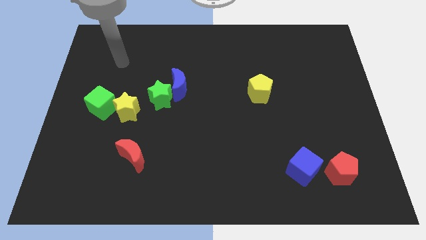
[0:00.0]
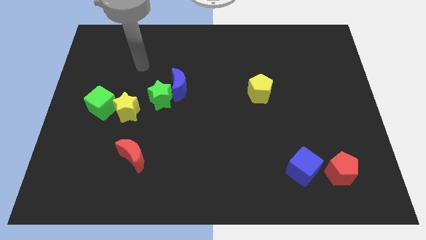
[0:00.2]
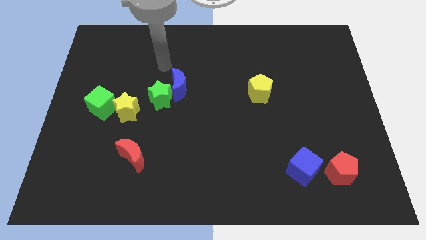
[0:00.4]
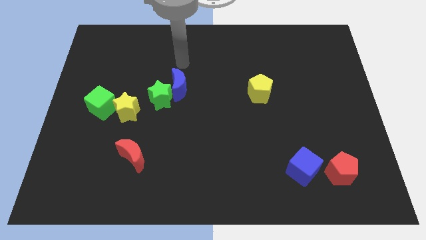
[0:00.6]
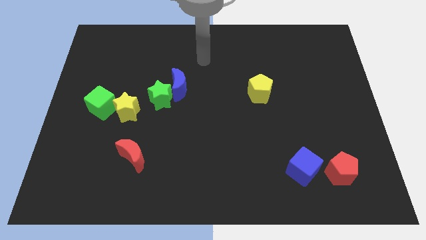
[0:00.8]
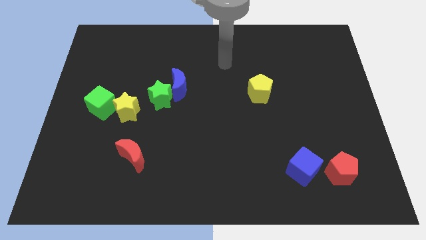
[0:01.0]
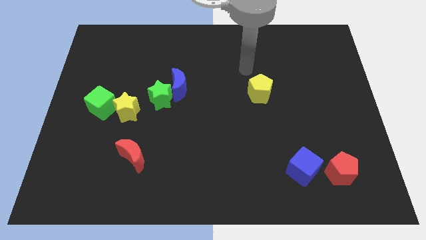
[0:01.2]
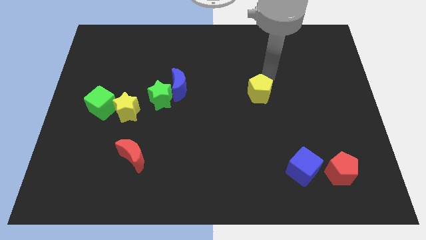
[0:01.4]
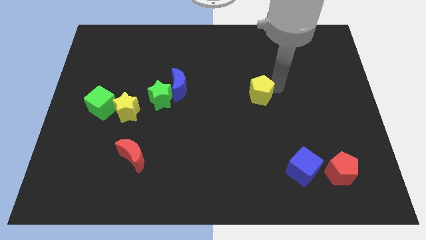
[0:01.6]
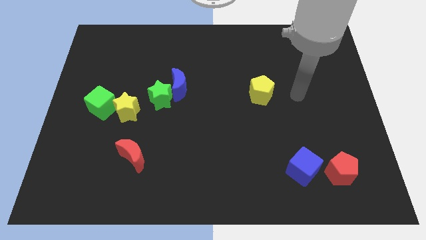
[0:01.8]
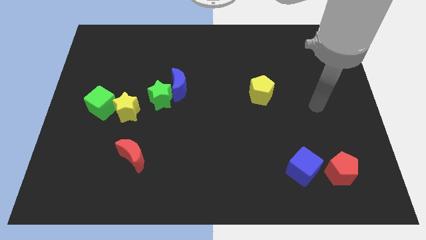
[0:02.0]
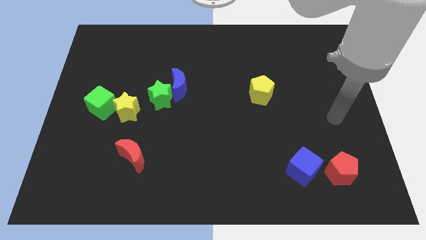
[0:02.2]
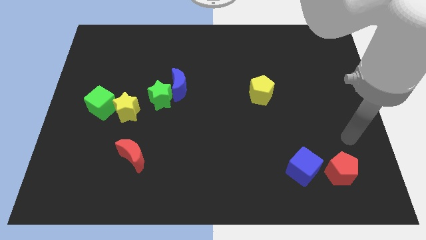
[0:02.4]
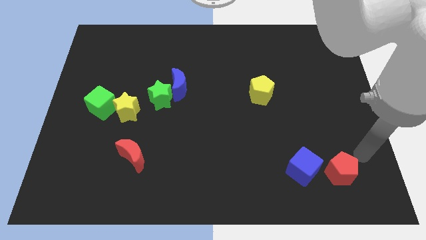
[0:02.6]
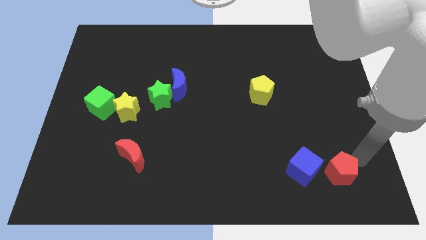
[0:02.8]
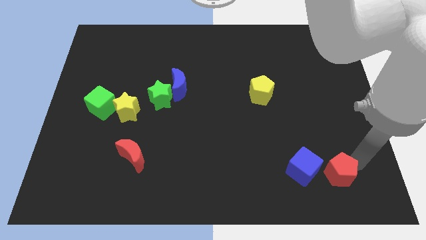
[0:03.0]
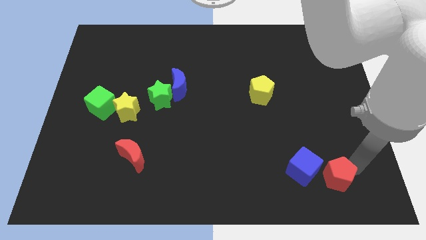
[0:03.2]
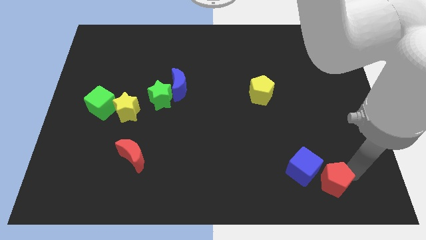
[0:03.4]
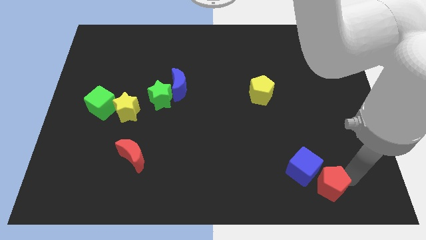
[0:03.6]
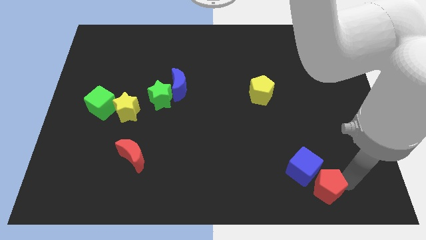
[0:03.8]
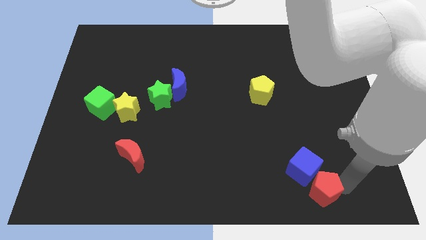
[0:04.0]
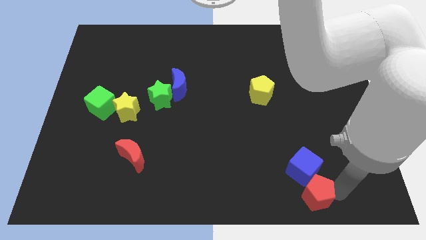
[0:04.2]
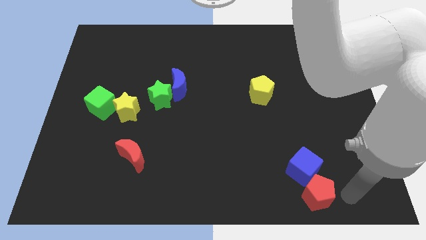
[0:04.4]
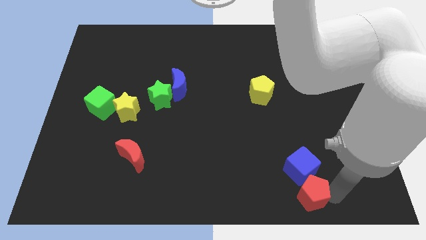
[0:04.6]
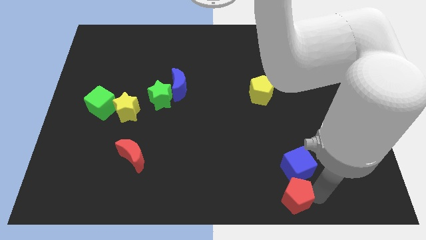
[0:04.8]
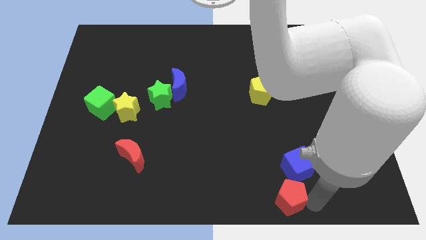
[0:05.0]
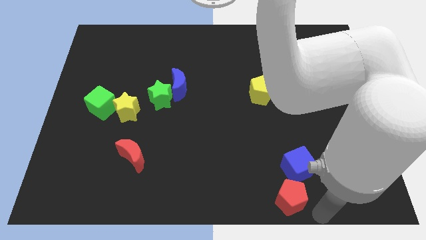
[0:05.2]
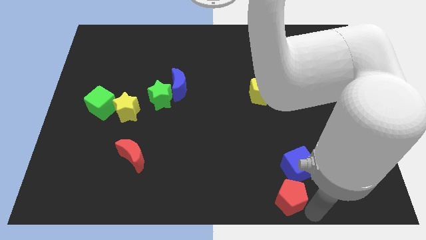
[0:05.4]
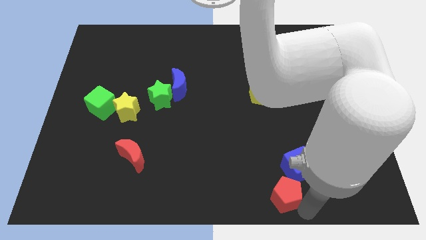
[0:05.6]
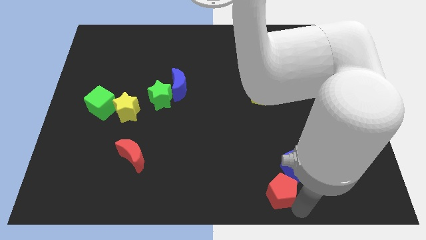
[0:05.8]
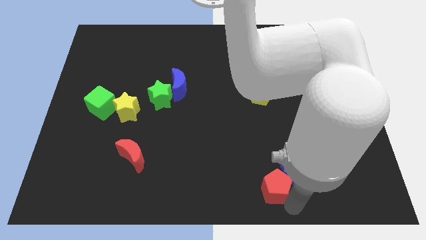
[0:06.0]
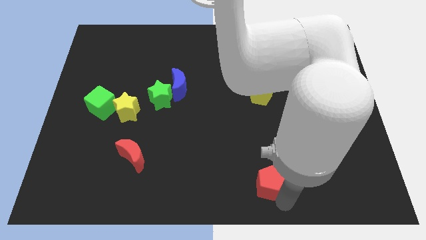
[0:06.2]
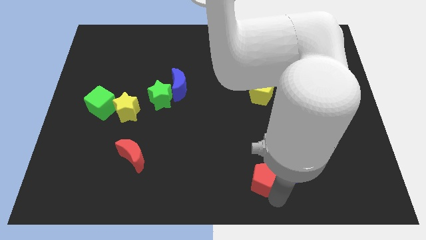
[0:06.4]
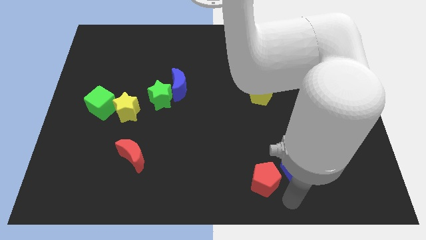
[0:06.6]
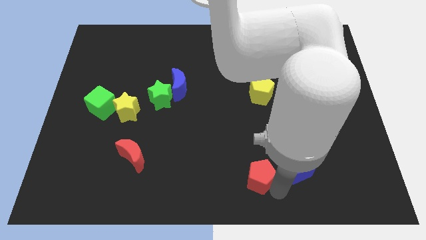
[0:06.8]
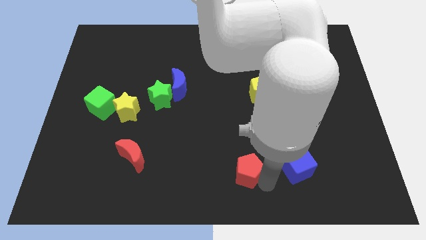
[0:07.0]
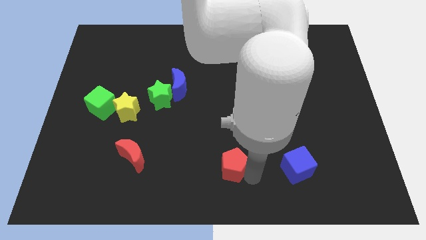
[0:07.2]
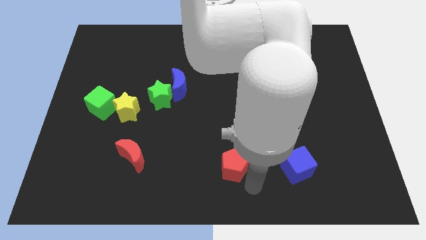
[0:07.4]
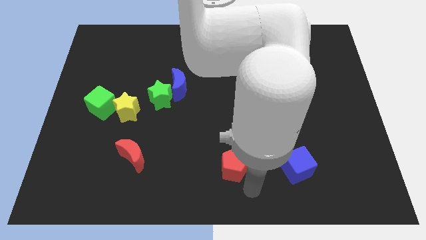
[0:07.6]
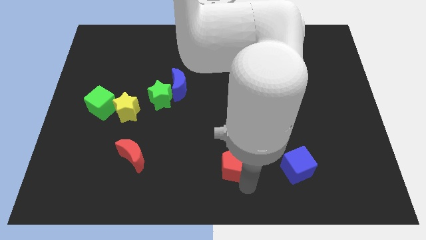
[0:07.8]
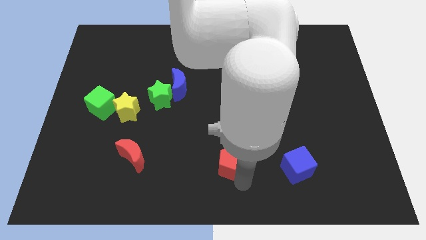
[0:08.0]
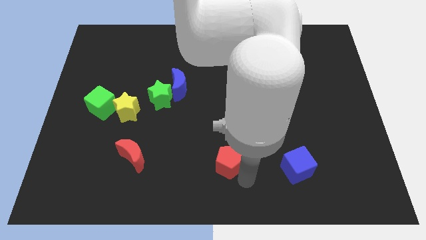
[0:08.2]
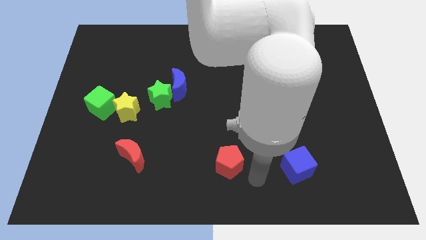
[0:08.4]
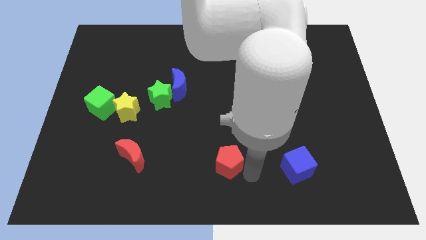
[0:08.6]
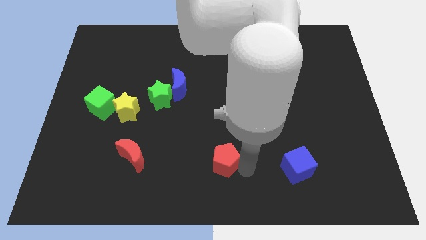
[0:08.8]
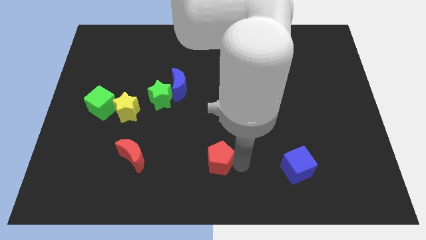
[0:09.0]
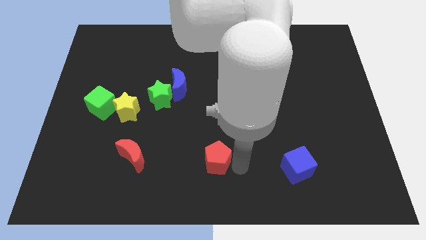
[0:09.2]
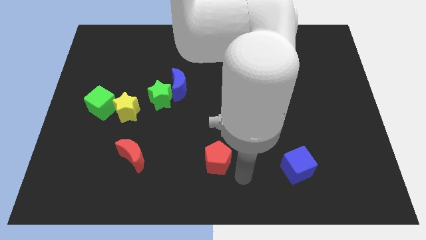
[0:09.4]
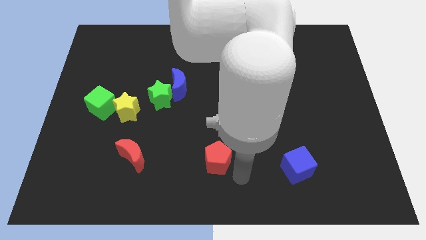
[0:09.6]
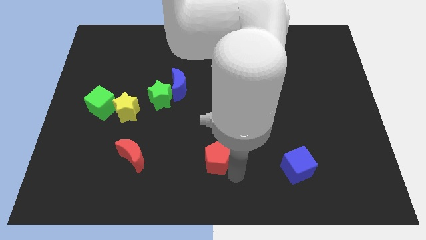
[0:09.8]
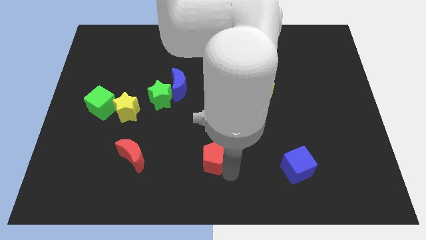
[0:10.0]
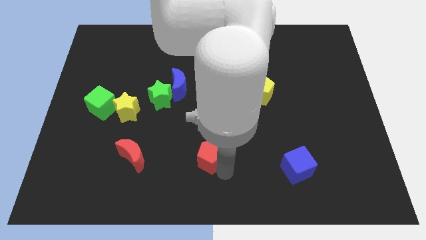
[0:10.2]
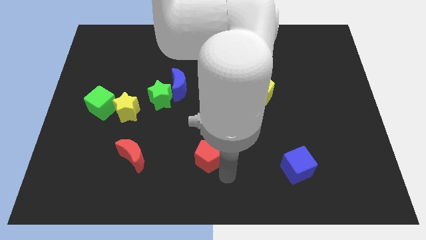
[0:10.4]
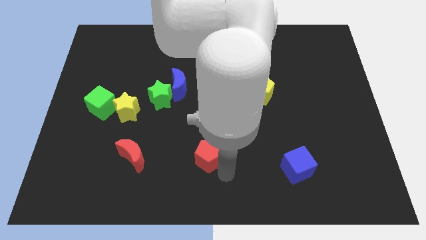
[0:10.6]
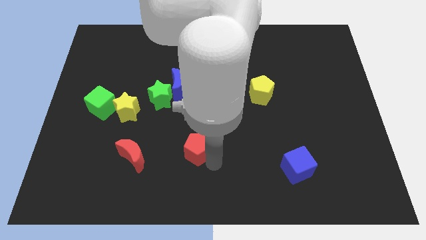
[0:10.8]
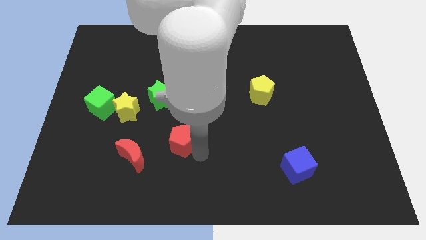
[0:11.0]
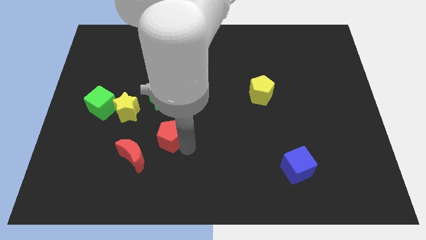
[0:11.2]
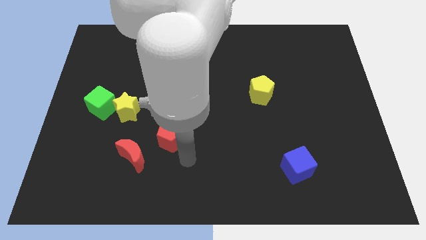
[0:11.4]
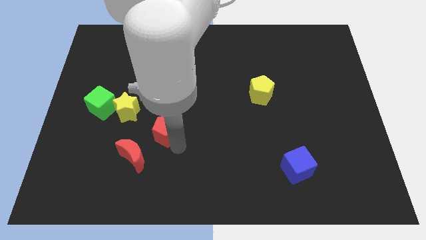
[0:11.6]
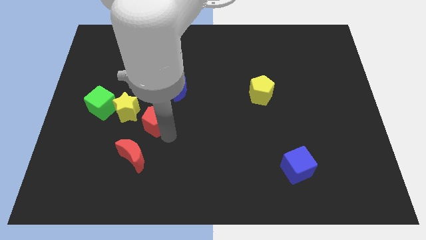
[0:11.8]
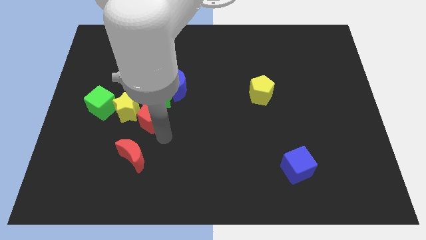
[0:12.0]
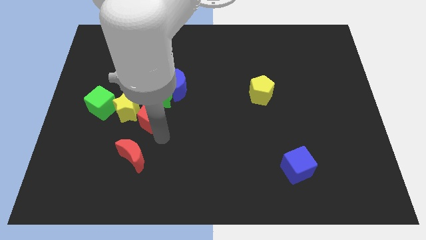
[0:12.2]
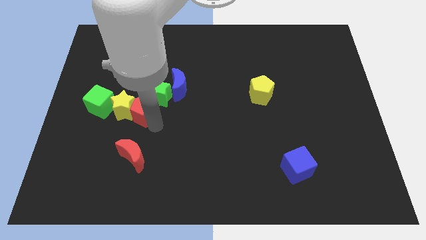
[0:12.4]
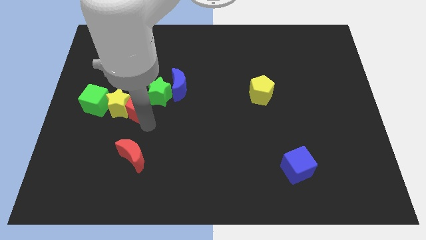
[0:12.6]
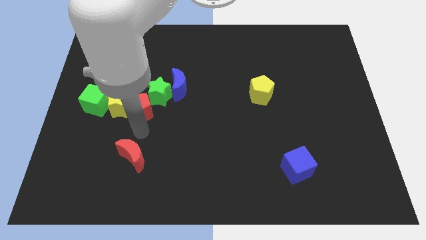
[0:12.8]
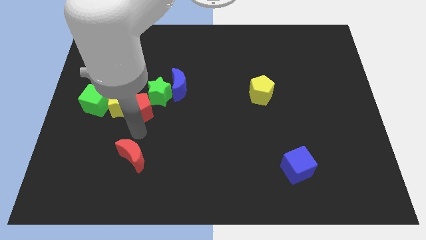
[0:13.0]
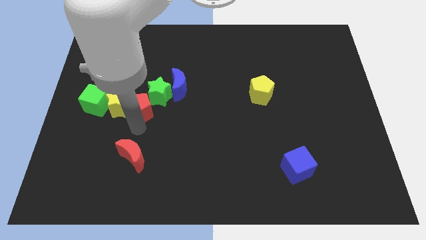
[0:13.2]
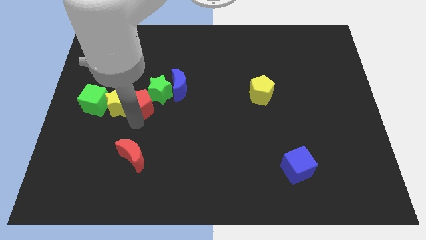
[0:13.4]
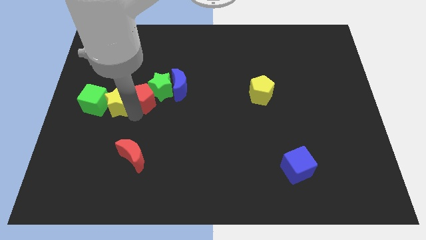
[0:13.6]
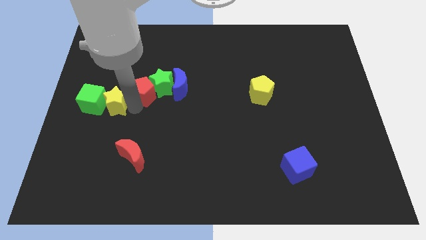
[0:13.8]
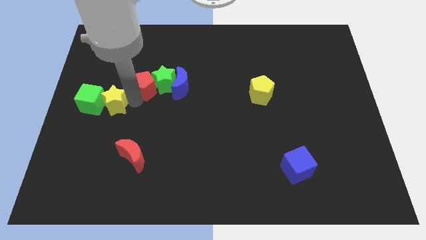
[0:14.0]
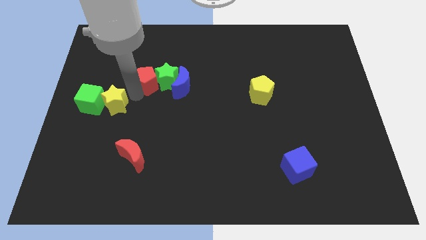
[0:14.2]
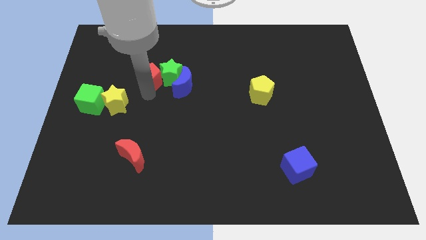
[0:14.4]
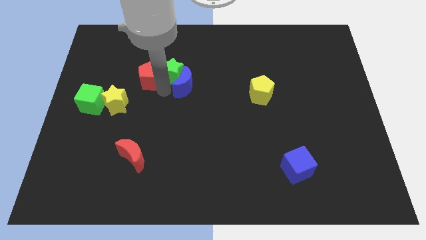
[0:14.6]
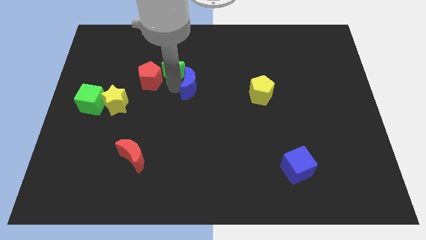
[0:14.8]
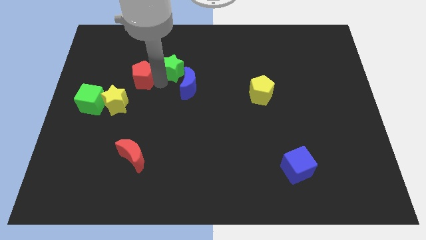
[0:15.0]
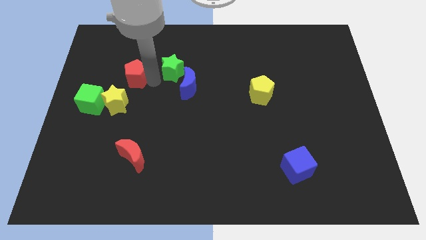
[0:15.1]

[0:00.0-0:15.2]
push the red pentagon to the top of the yellow star

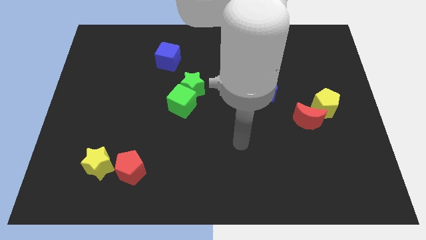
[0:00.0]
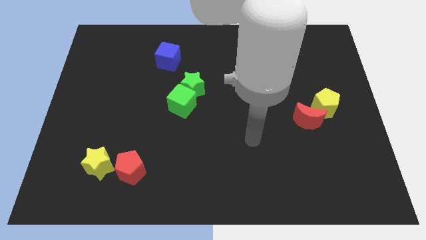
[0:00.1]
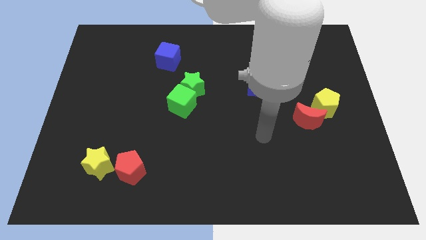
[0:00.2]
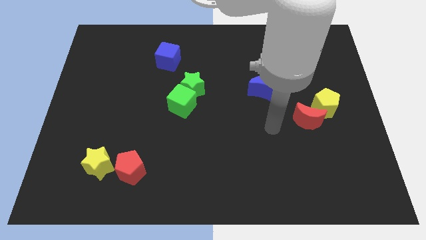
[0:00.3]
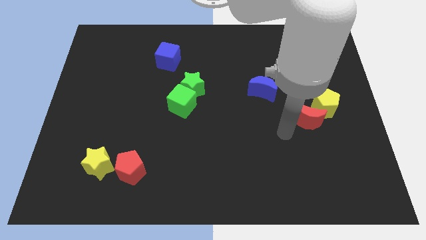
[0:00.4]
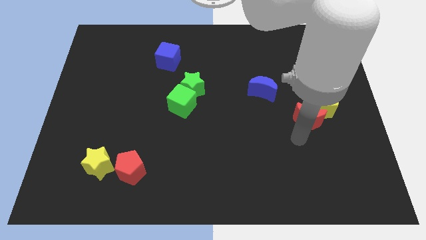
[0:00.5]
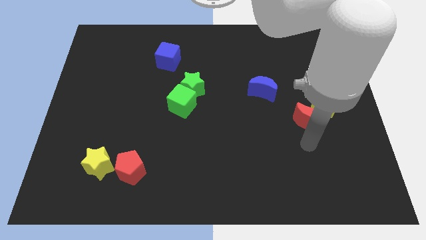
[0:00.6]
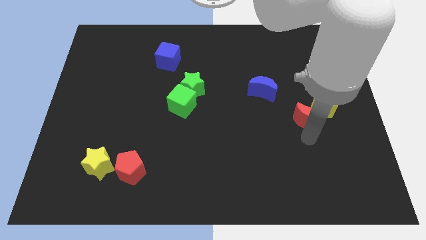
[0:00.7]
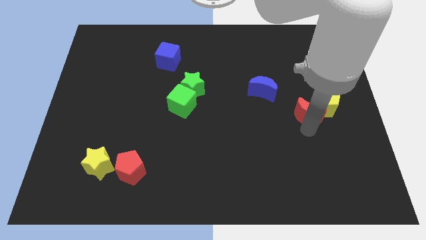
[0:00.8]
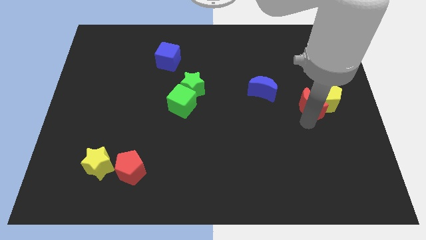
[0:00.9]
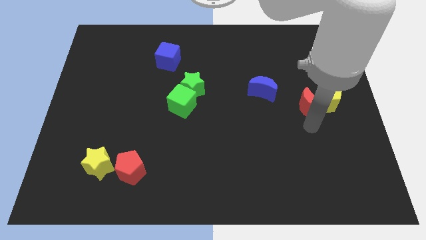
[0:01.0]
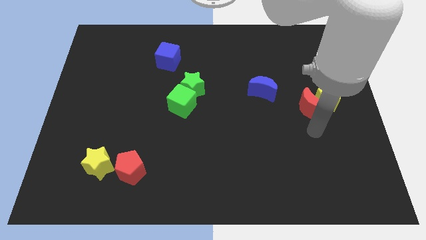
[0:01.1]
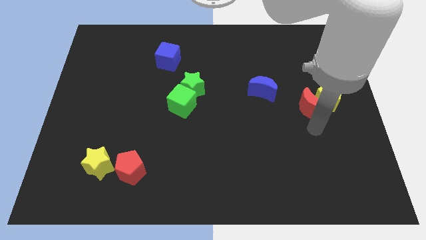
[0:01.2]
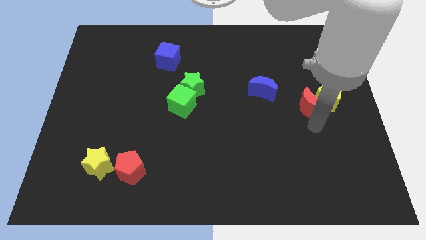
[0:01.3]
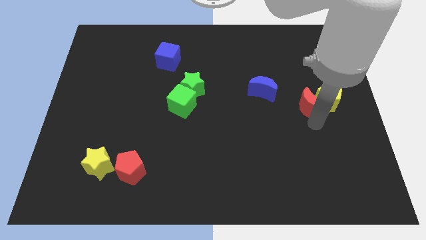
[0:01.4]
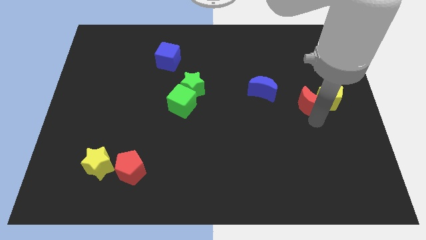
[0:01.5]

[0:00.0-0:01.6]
move the red moon right of the blue moon
